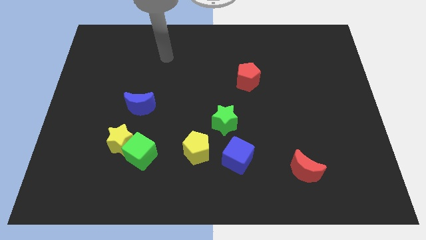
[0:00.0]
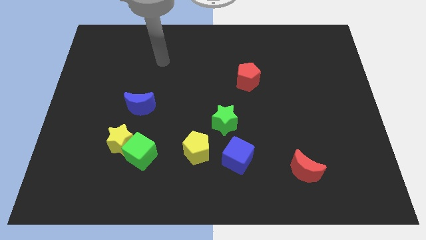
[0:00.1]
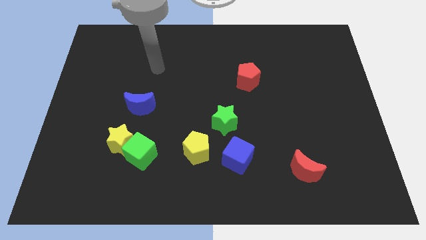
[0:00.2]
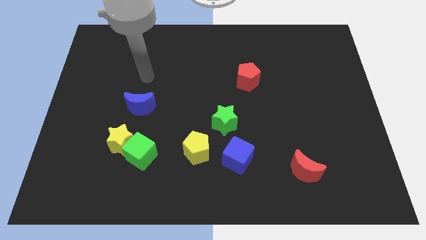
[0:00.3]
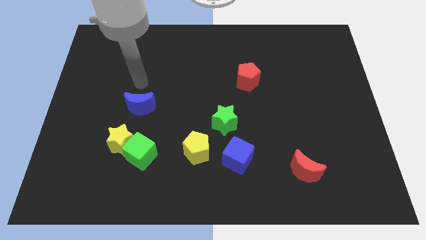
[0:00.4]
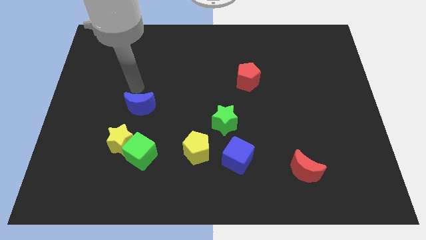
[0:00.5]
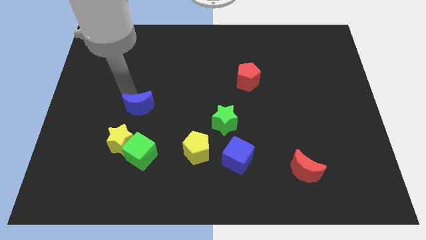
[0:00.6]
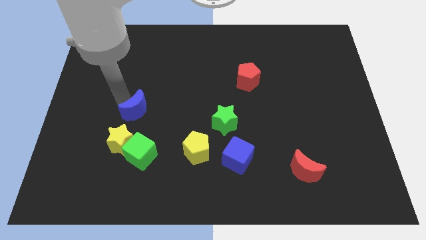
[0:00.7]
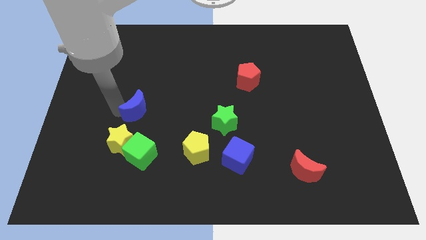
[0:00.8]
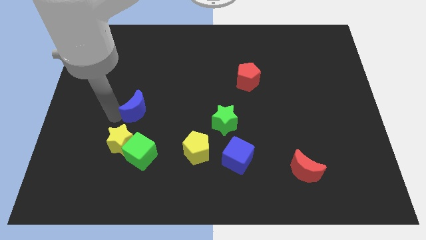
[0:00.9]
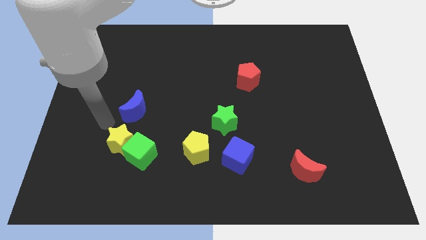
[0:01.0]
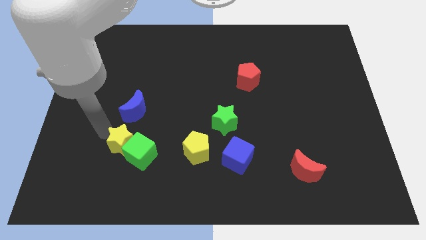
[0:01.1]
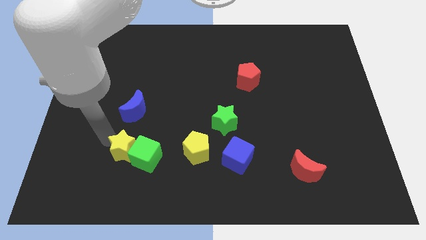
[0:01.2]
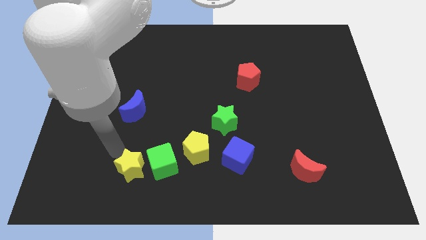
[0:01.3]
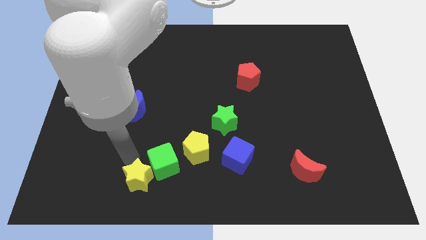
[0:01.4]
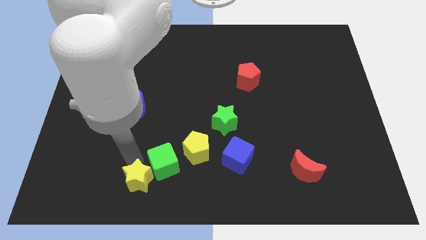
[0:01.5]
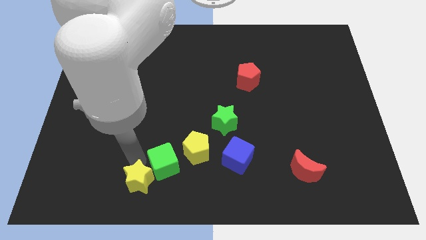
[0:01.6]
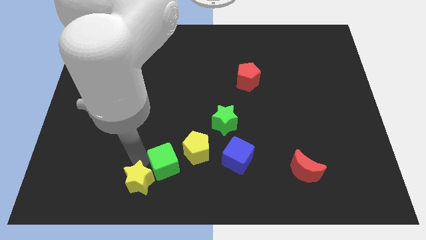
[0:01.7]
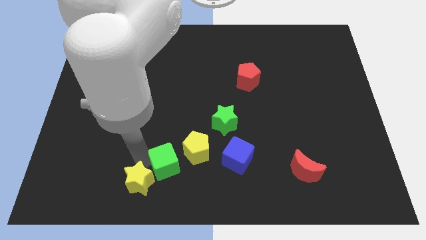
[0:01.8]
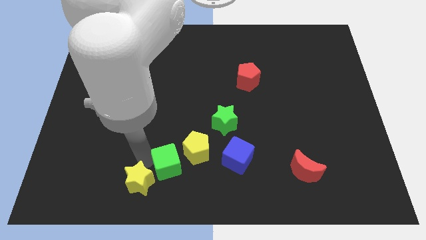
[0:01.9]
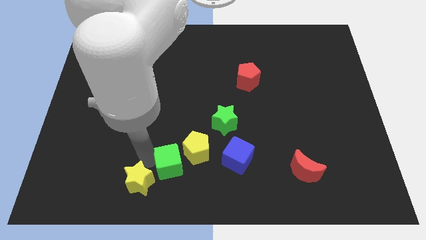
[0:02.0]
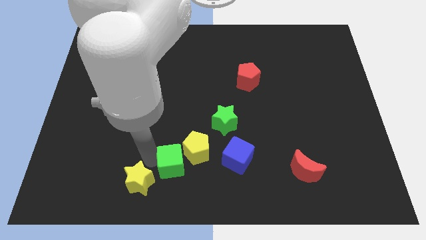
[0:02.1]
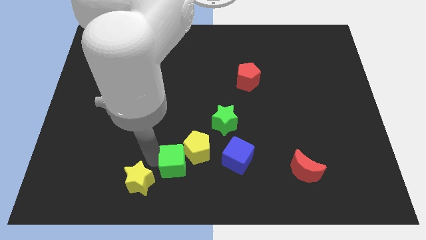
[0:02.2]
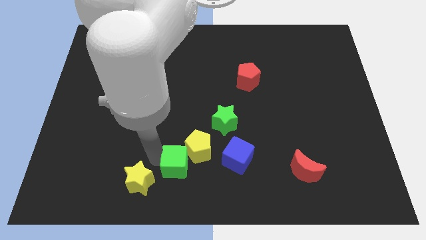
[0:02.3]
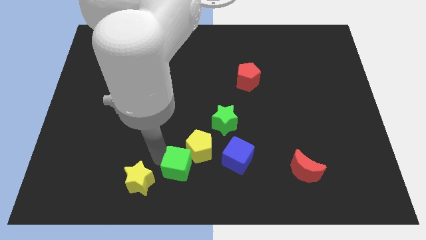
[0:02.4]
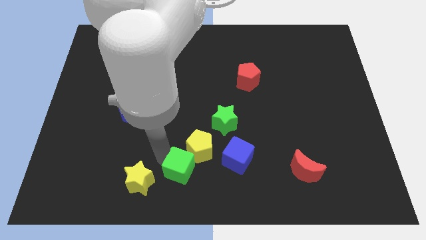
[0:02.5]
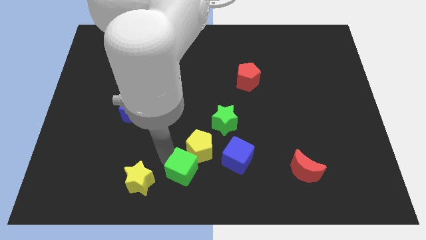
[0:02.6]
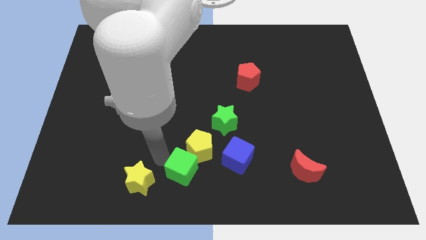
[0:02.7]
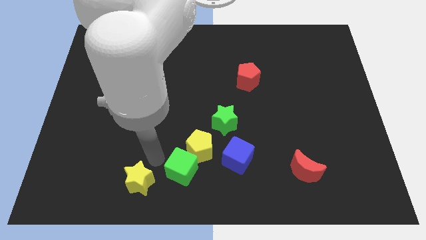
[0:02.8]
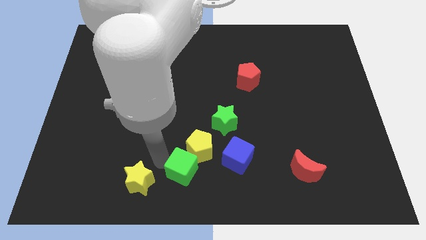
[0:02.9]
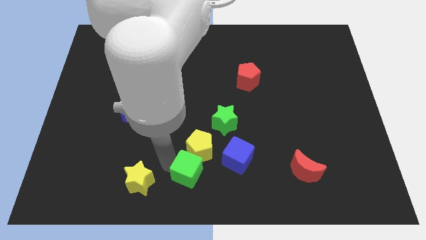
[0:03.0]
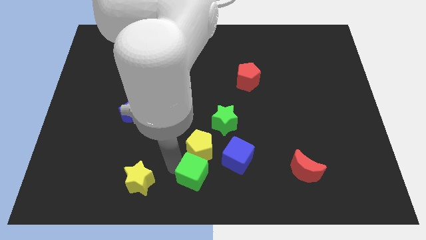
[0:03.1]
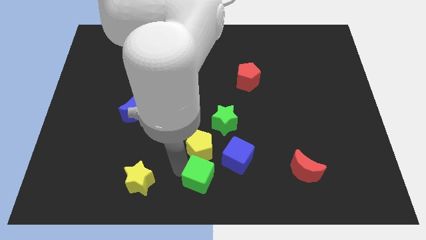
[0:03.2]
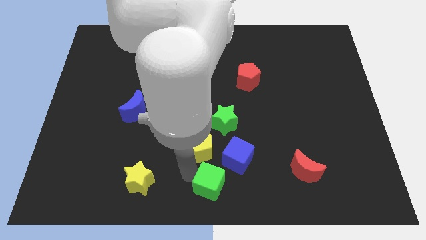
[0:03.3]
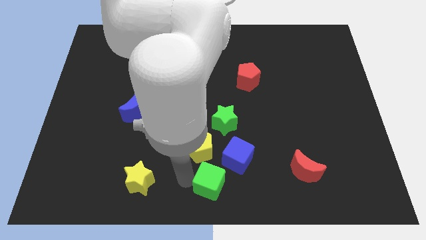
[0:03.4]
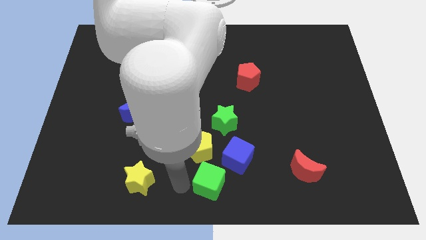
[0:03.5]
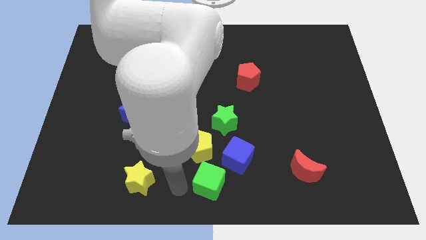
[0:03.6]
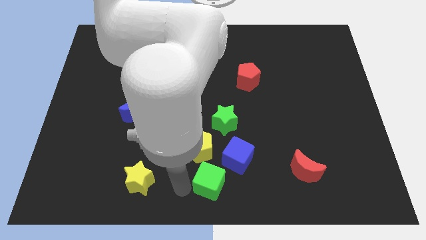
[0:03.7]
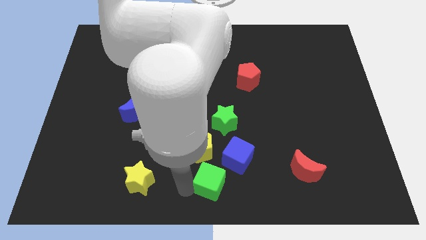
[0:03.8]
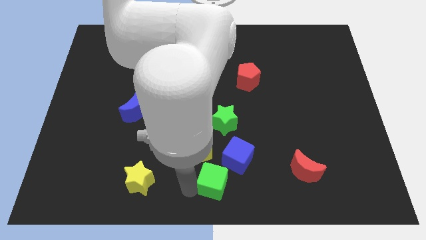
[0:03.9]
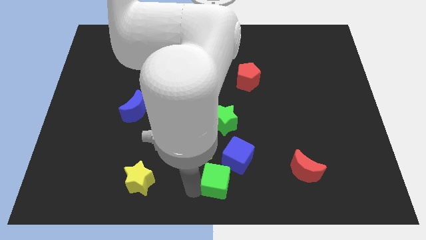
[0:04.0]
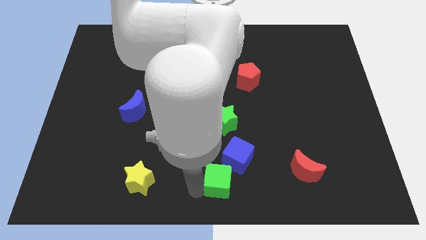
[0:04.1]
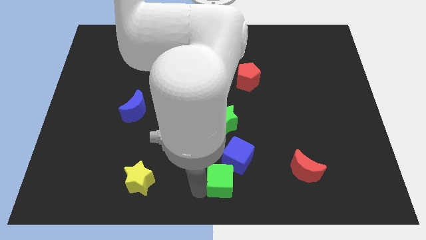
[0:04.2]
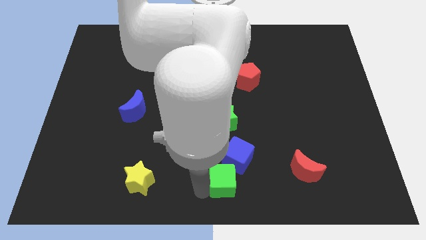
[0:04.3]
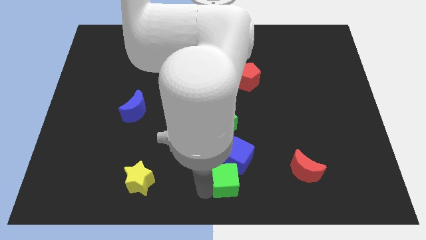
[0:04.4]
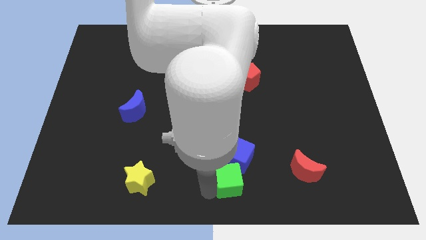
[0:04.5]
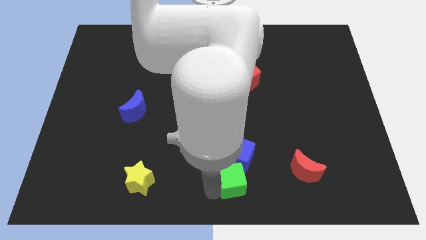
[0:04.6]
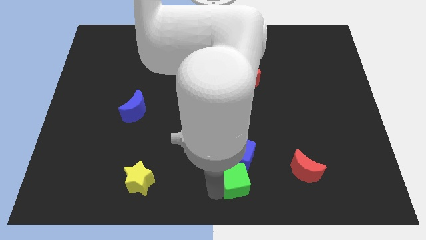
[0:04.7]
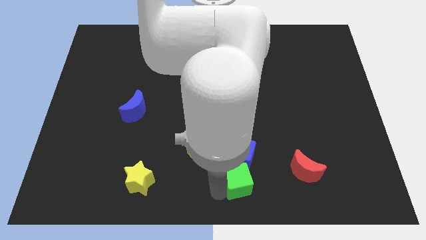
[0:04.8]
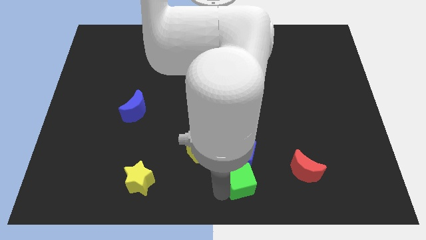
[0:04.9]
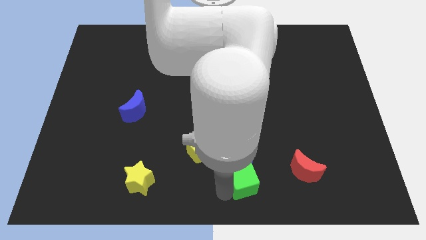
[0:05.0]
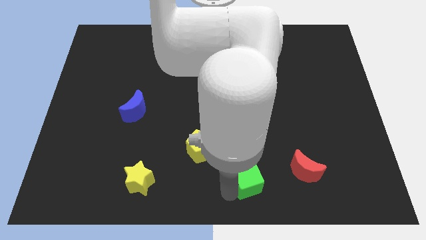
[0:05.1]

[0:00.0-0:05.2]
push the green cube right

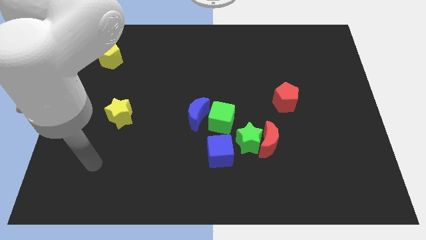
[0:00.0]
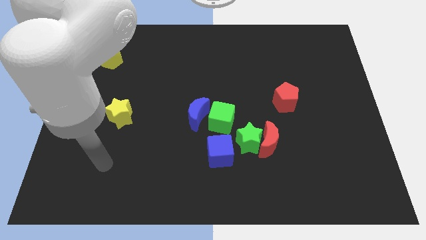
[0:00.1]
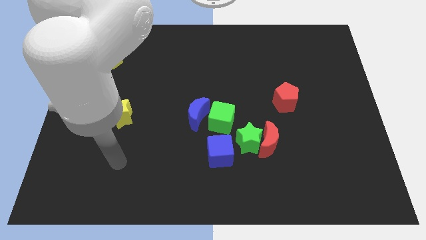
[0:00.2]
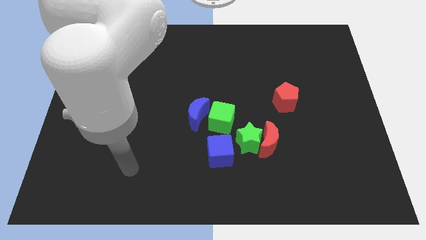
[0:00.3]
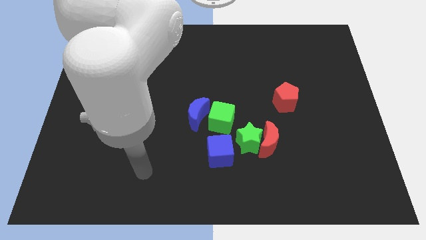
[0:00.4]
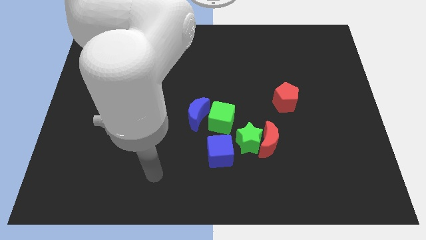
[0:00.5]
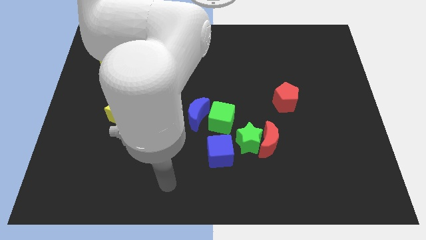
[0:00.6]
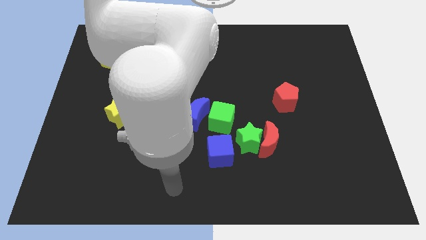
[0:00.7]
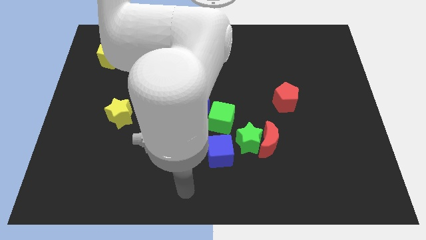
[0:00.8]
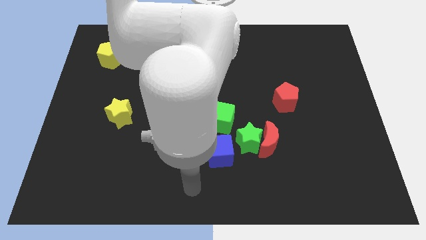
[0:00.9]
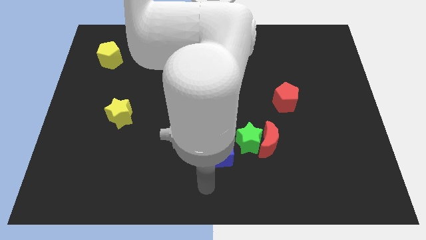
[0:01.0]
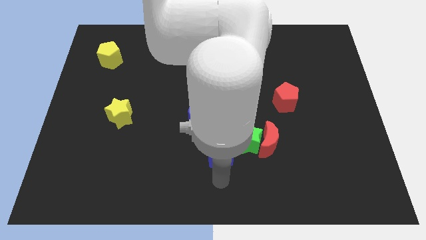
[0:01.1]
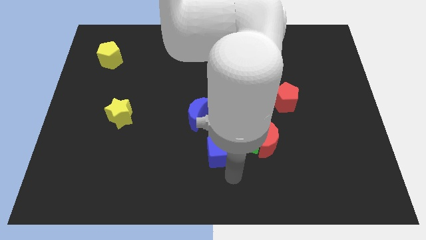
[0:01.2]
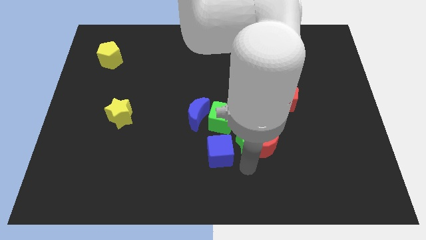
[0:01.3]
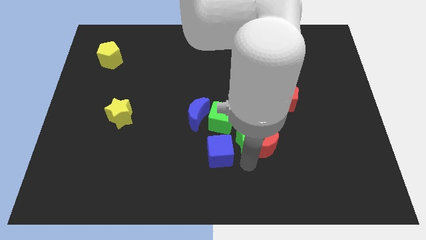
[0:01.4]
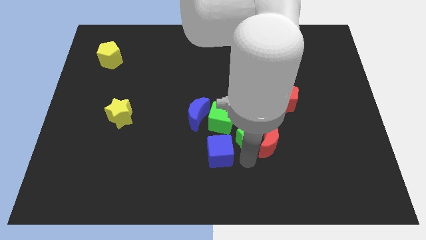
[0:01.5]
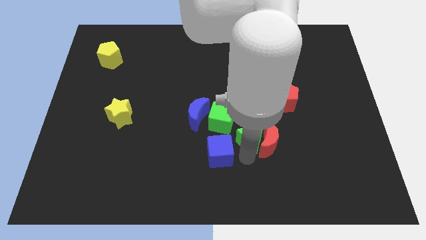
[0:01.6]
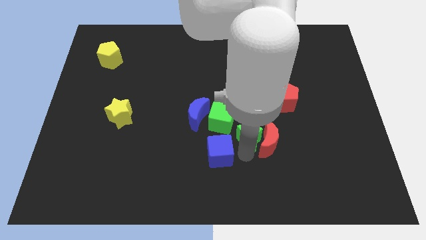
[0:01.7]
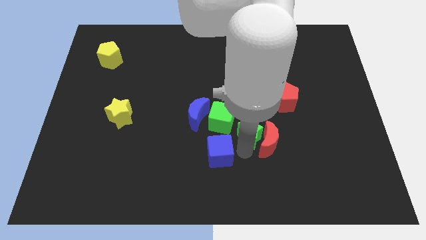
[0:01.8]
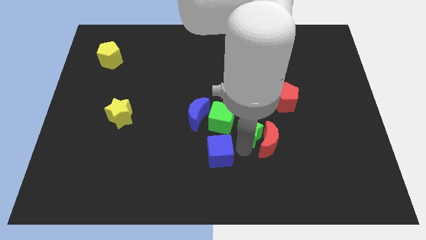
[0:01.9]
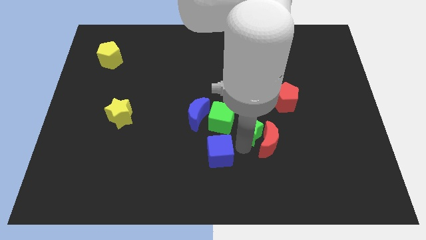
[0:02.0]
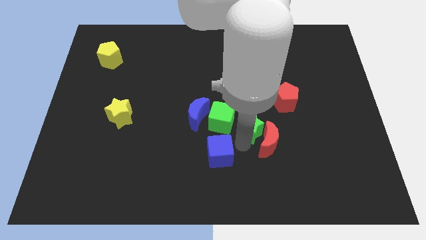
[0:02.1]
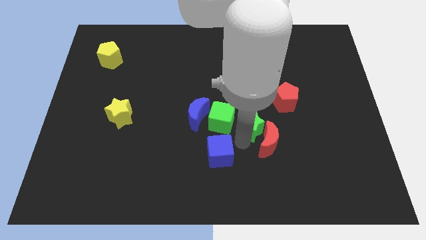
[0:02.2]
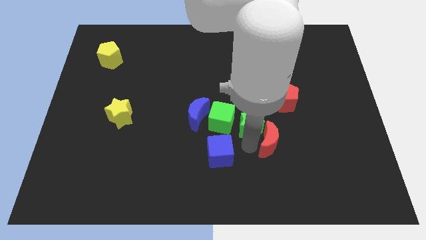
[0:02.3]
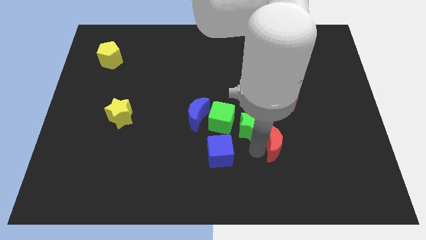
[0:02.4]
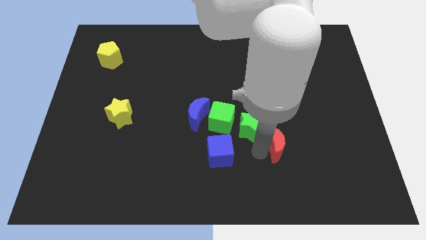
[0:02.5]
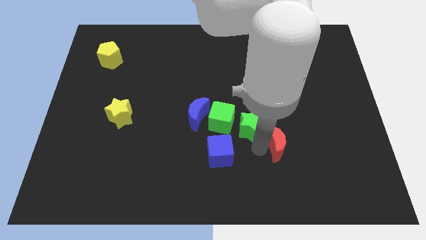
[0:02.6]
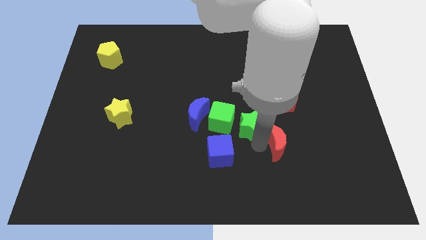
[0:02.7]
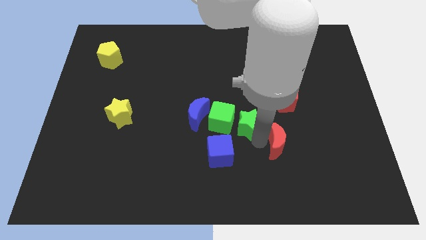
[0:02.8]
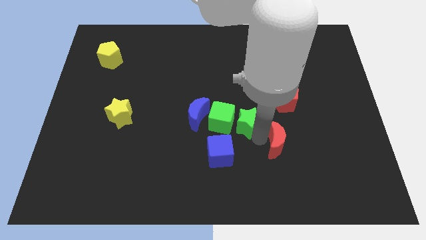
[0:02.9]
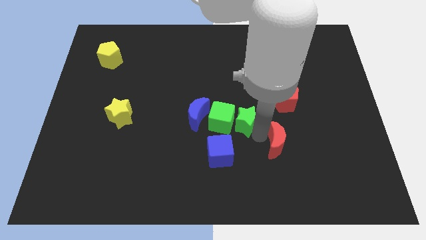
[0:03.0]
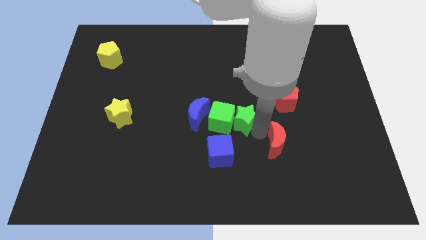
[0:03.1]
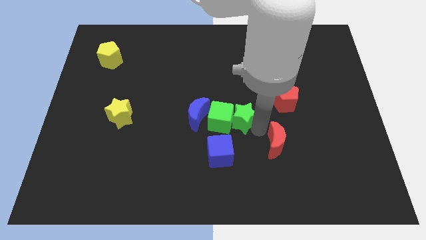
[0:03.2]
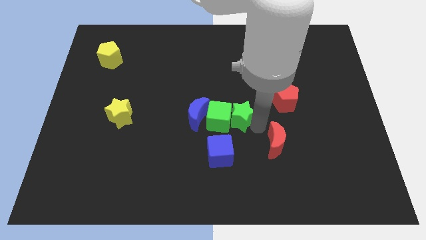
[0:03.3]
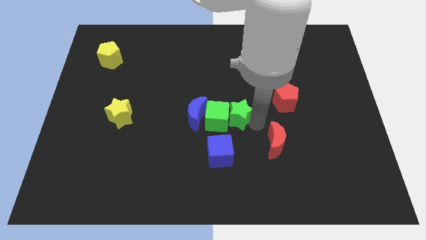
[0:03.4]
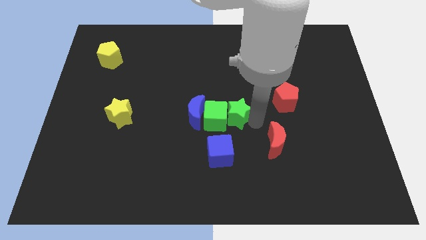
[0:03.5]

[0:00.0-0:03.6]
move the green star a little bit upwards
